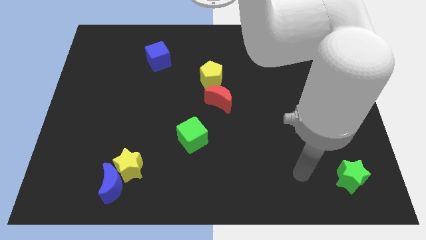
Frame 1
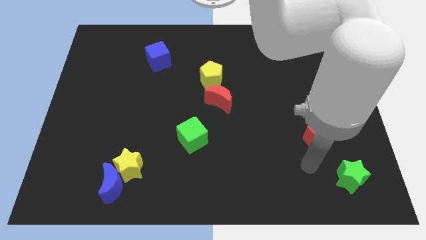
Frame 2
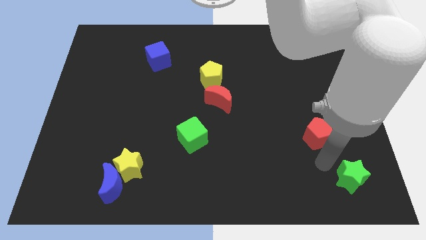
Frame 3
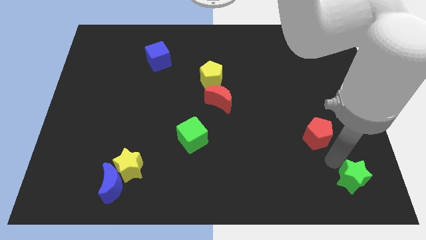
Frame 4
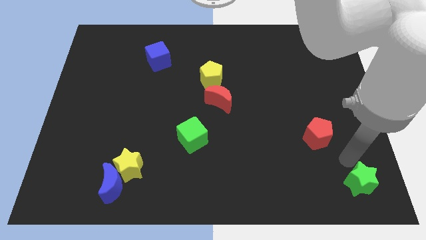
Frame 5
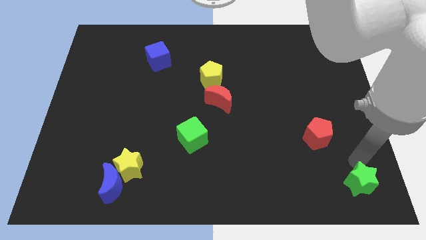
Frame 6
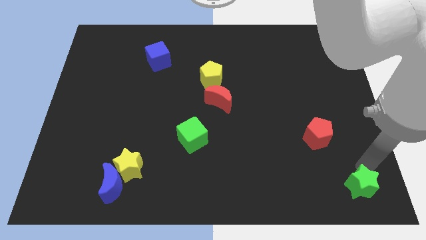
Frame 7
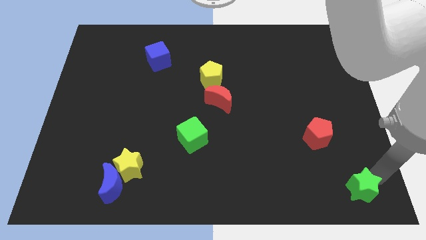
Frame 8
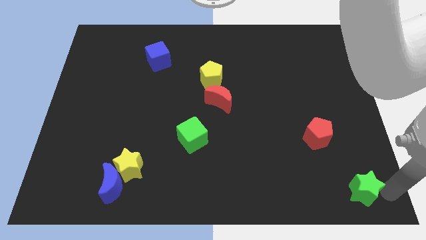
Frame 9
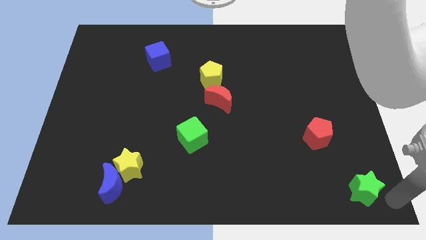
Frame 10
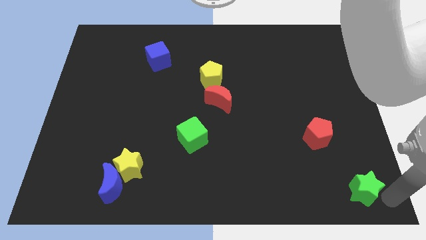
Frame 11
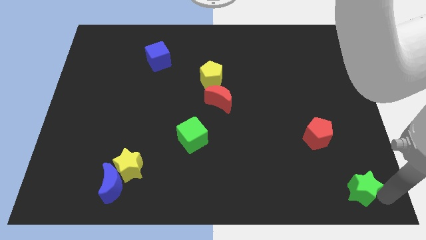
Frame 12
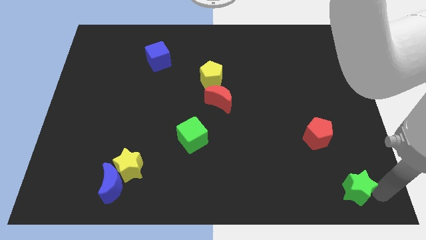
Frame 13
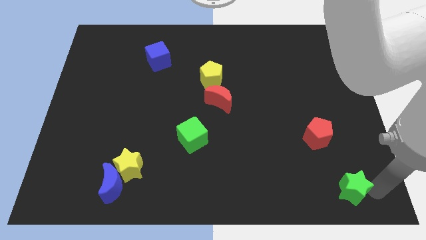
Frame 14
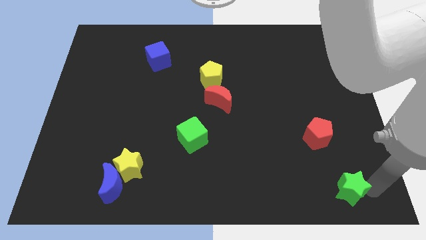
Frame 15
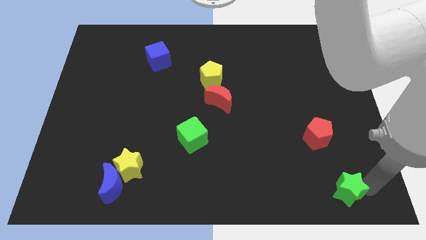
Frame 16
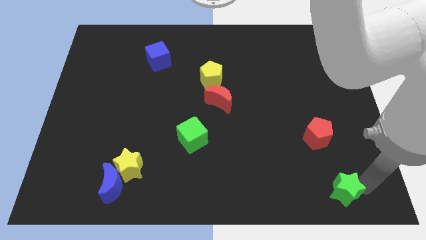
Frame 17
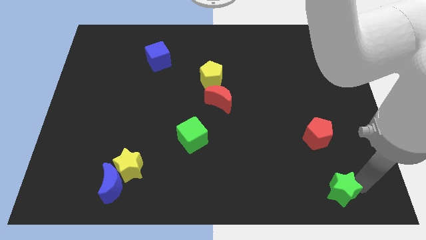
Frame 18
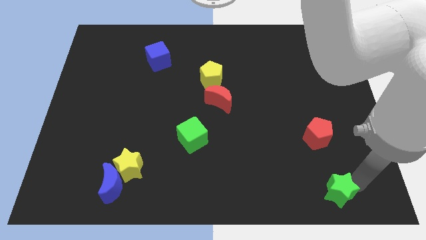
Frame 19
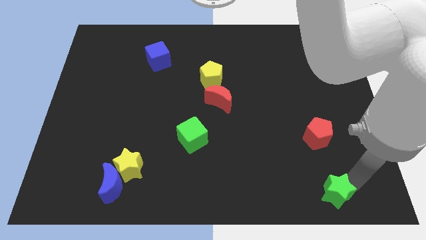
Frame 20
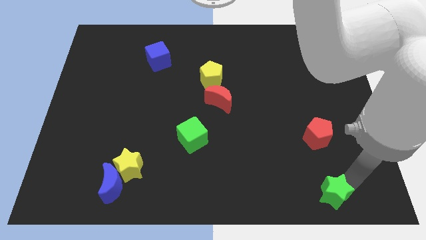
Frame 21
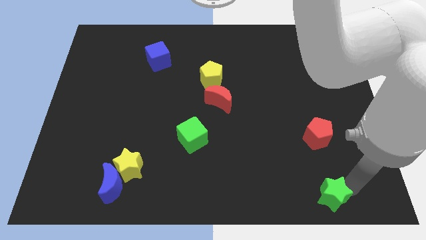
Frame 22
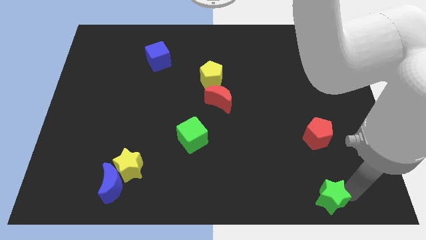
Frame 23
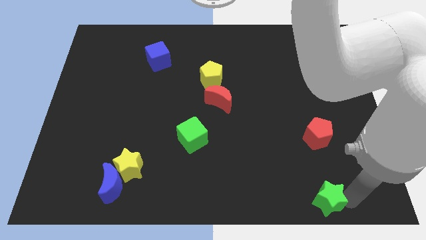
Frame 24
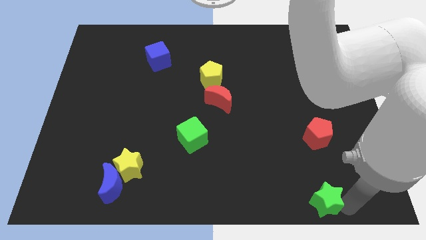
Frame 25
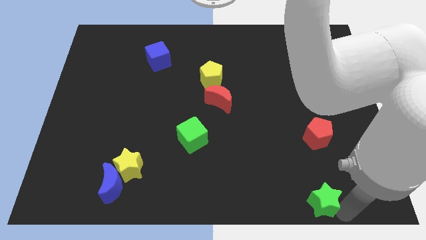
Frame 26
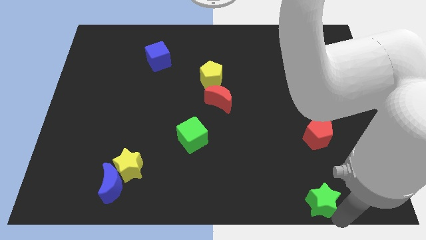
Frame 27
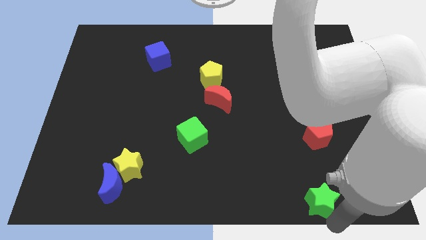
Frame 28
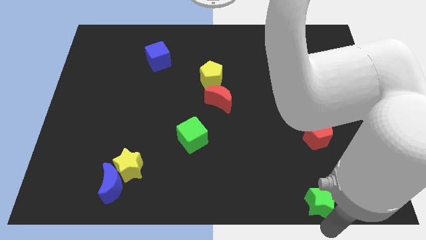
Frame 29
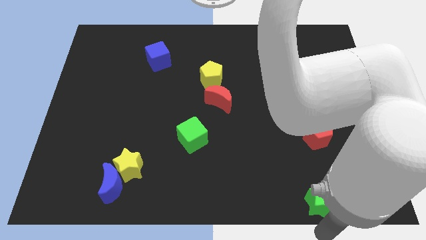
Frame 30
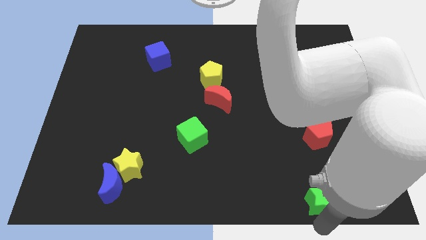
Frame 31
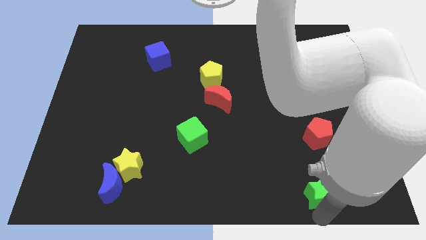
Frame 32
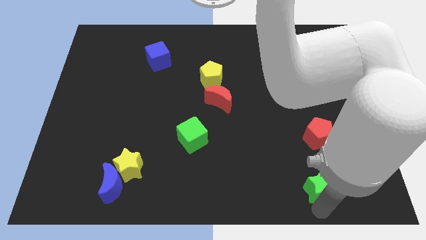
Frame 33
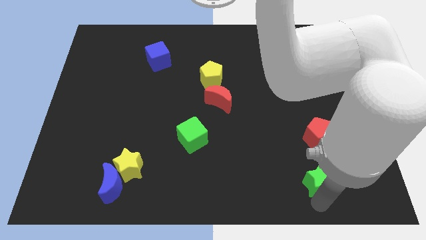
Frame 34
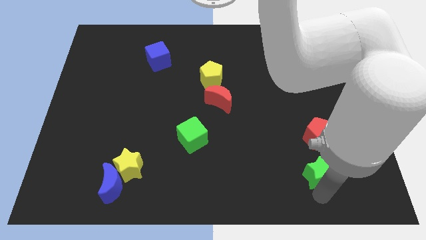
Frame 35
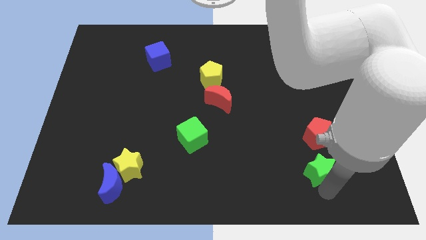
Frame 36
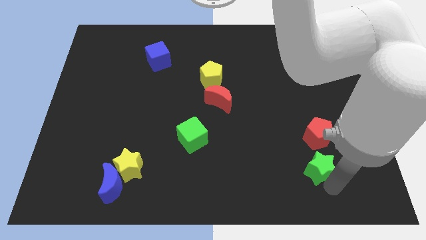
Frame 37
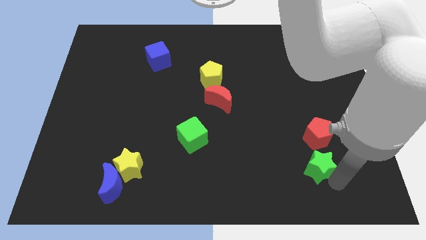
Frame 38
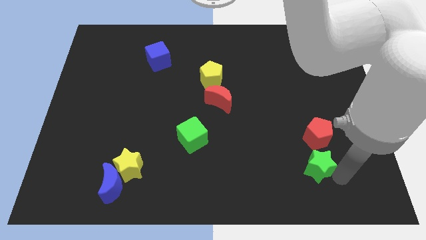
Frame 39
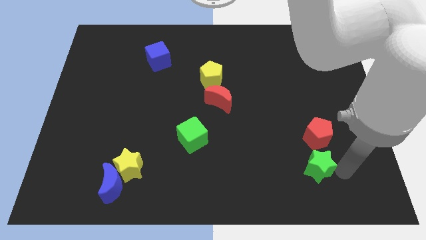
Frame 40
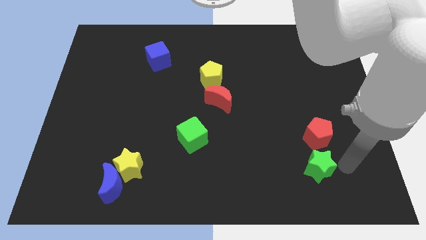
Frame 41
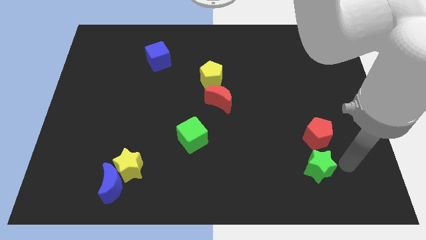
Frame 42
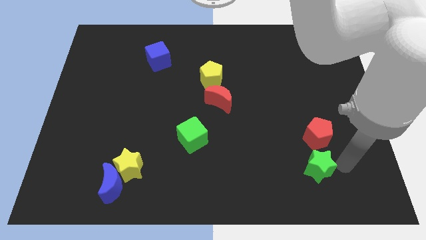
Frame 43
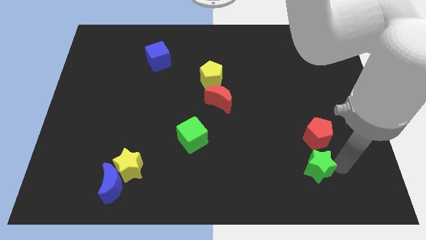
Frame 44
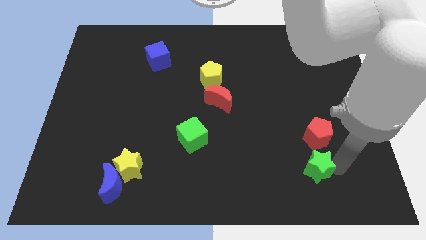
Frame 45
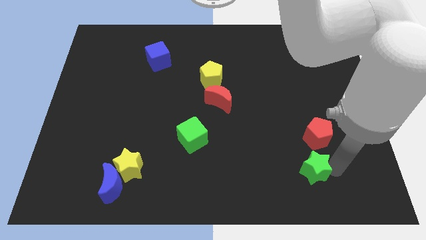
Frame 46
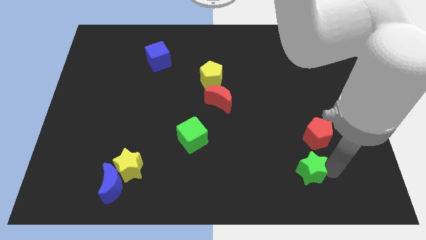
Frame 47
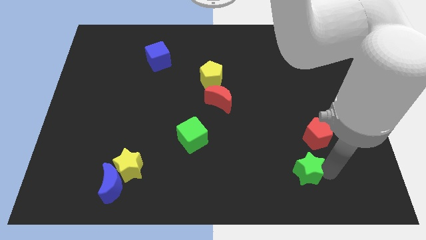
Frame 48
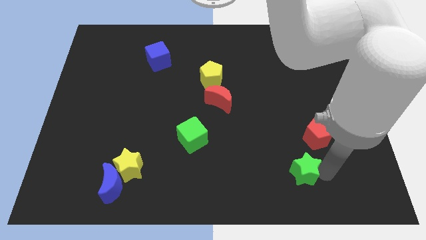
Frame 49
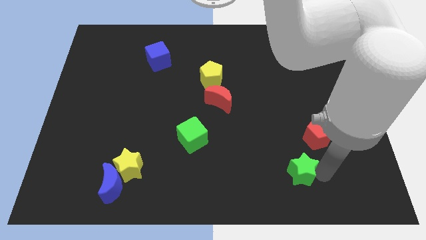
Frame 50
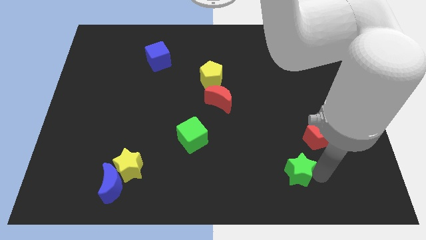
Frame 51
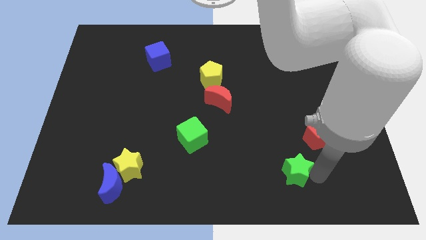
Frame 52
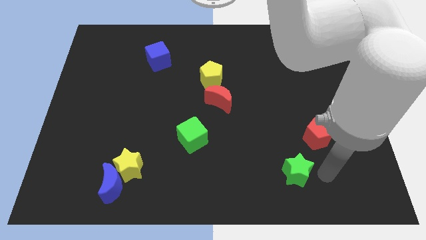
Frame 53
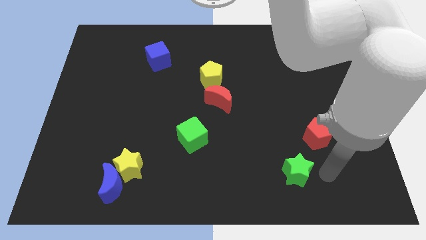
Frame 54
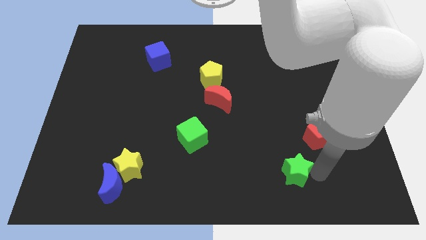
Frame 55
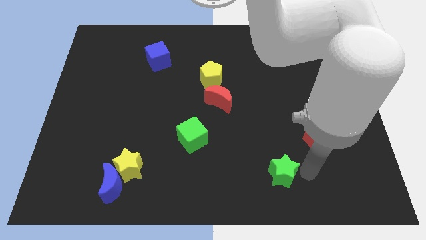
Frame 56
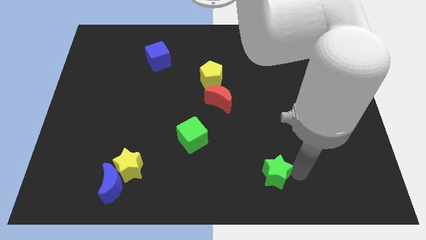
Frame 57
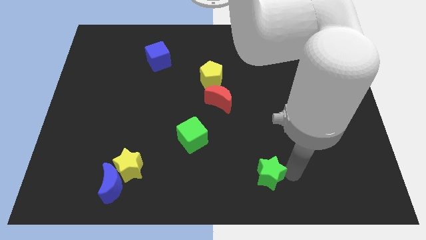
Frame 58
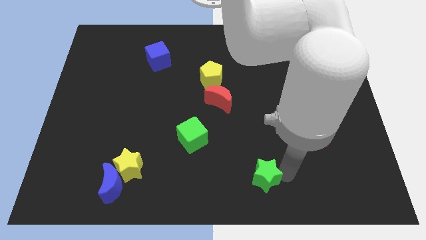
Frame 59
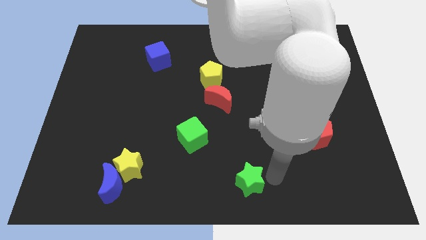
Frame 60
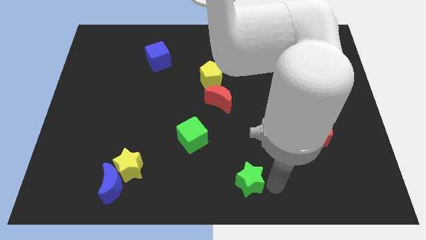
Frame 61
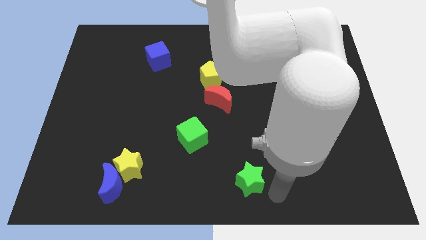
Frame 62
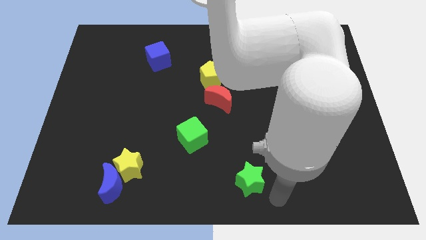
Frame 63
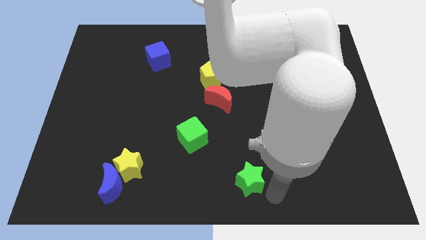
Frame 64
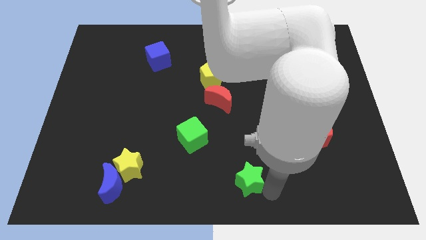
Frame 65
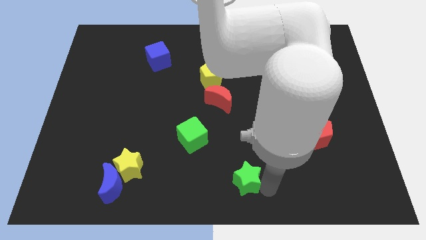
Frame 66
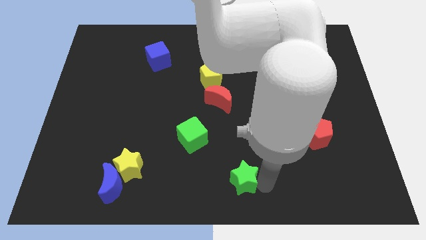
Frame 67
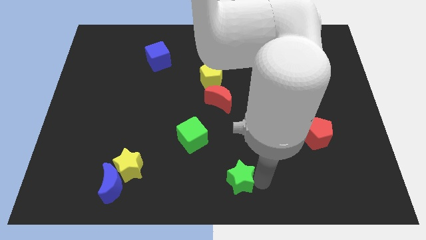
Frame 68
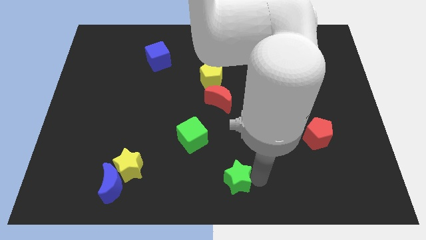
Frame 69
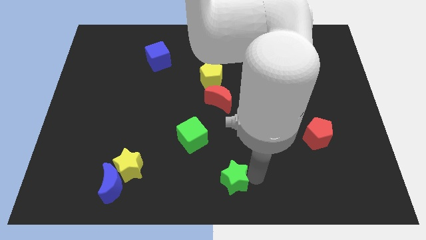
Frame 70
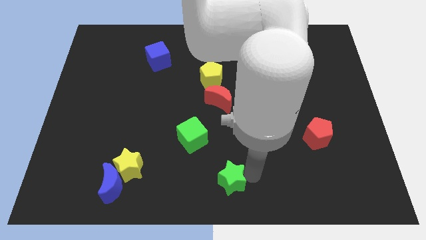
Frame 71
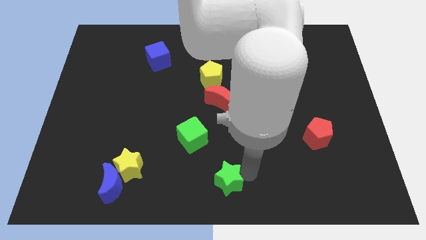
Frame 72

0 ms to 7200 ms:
push the green star to the bottom right side of the green cube
